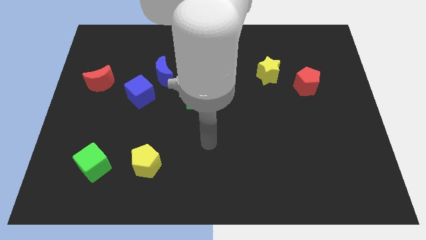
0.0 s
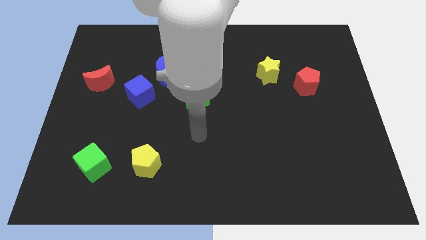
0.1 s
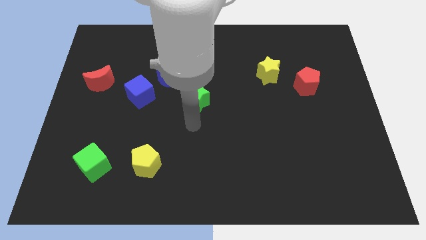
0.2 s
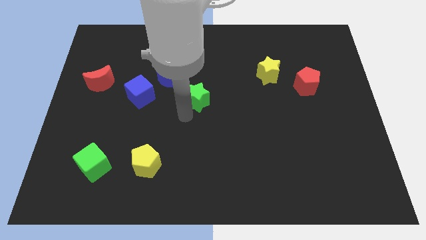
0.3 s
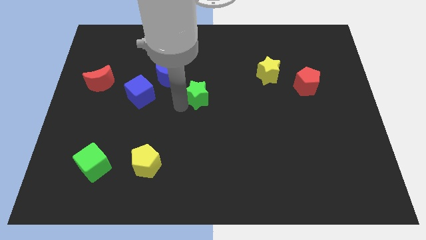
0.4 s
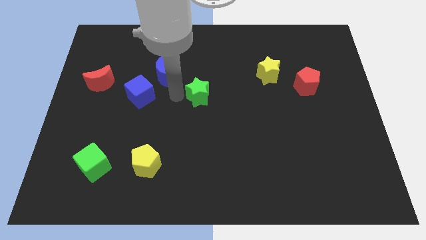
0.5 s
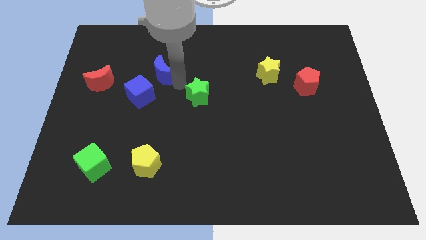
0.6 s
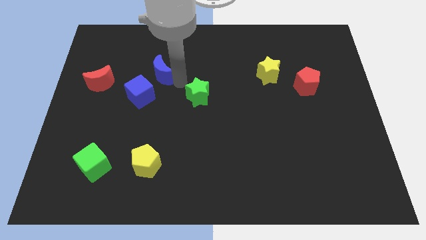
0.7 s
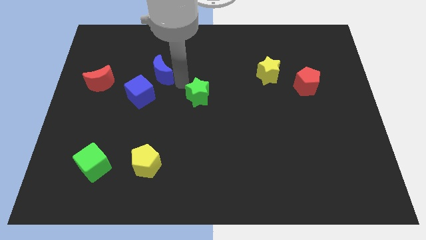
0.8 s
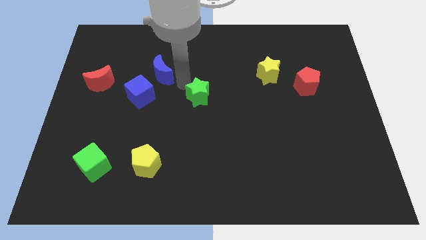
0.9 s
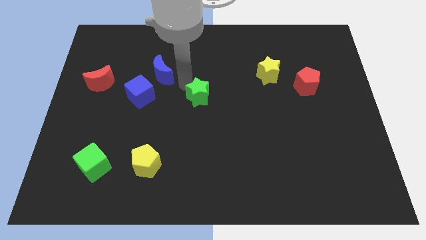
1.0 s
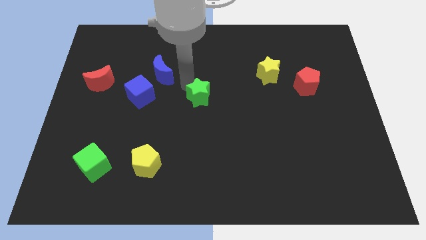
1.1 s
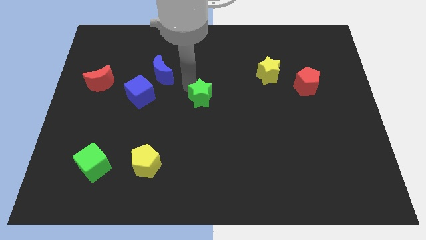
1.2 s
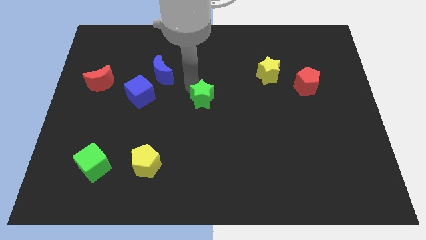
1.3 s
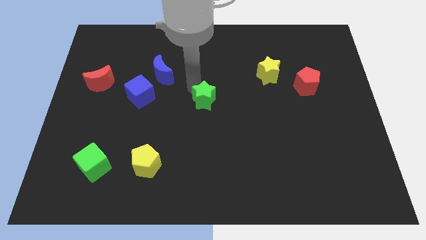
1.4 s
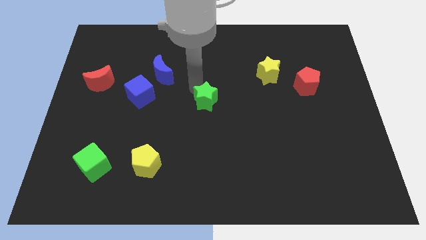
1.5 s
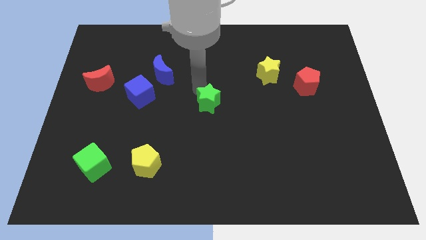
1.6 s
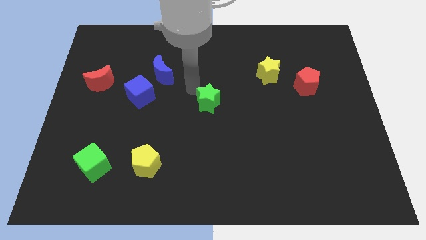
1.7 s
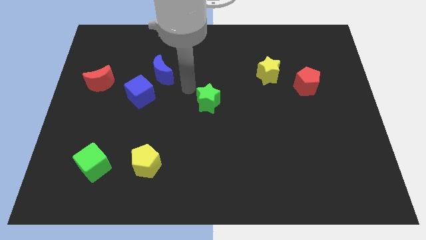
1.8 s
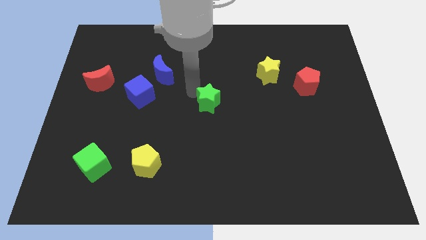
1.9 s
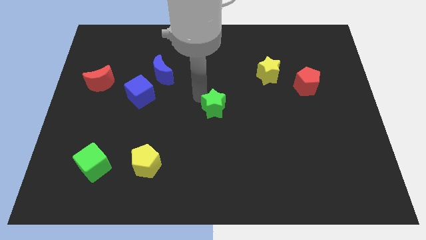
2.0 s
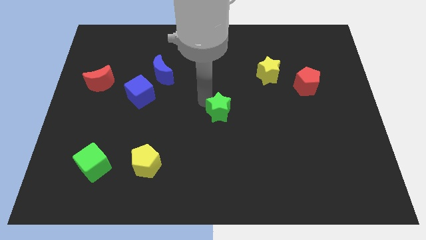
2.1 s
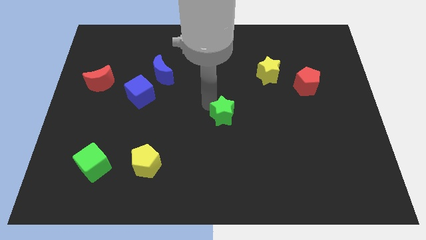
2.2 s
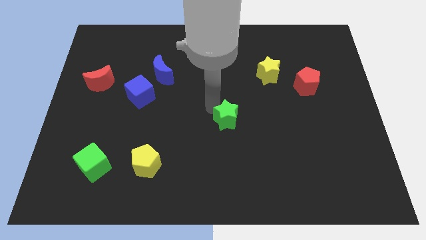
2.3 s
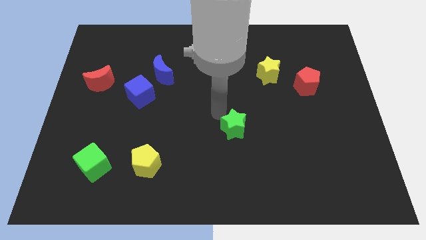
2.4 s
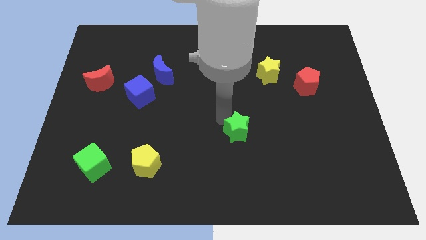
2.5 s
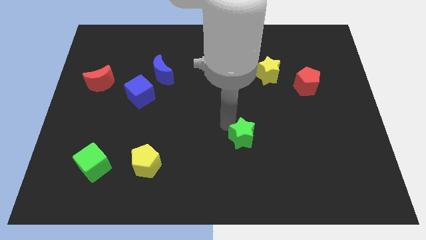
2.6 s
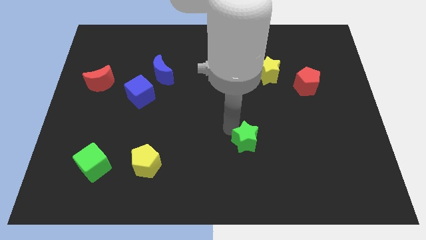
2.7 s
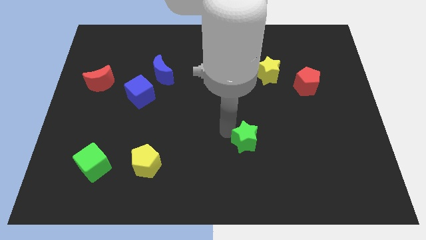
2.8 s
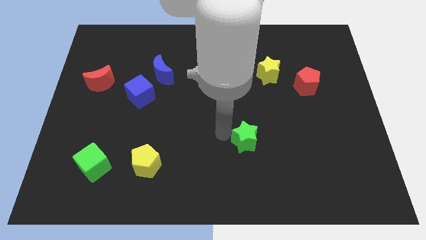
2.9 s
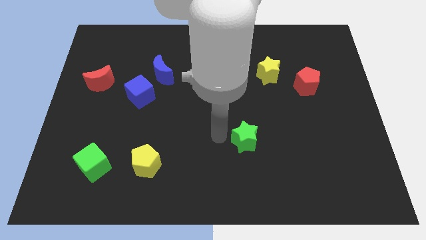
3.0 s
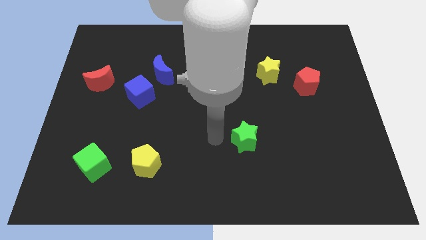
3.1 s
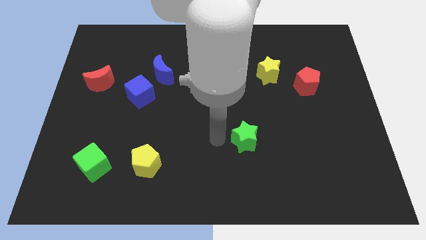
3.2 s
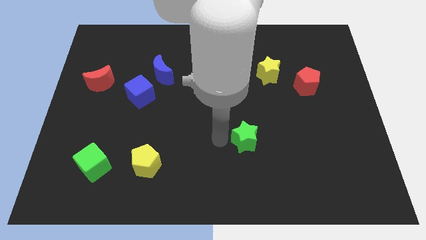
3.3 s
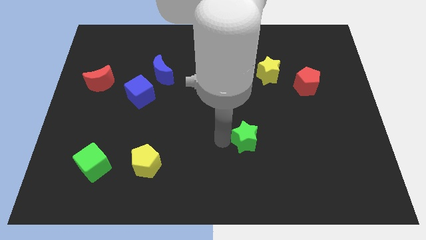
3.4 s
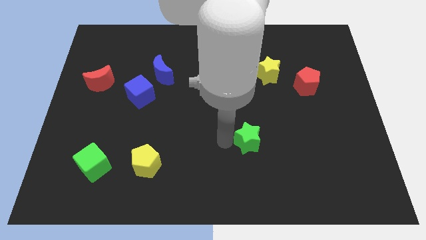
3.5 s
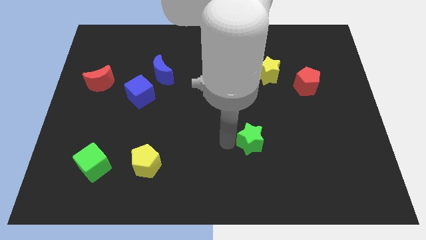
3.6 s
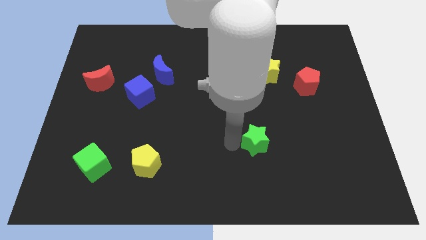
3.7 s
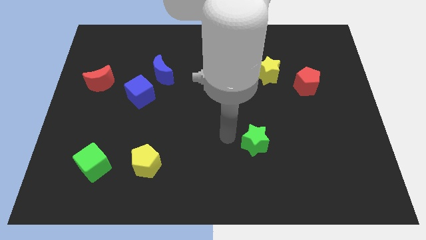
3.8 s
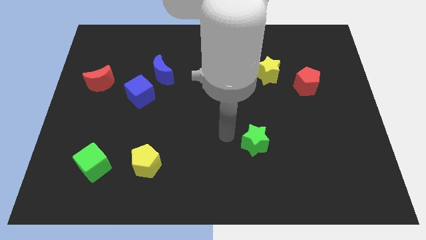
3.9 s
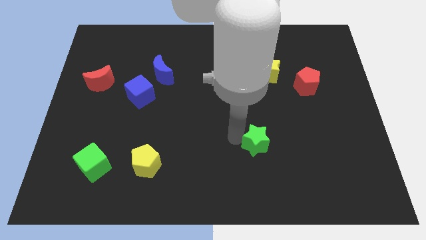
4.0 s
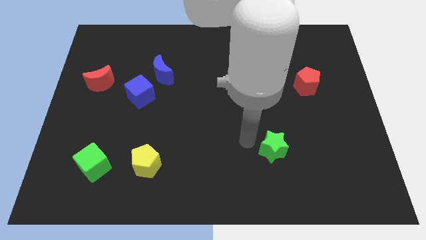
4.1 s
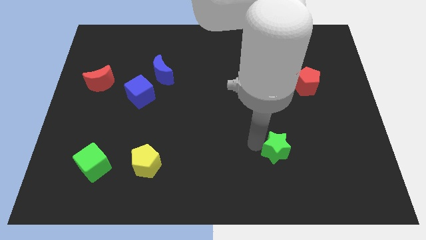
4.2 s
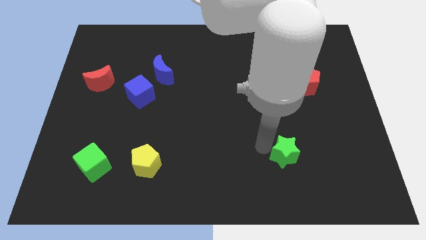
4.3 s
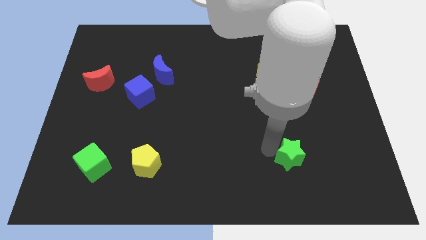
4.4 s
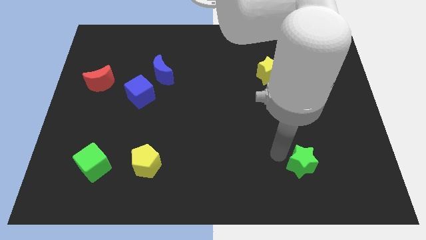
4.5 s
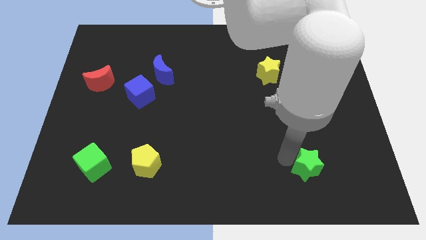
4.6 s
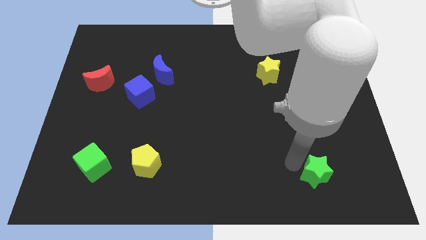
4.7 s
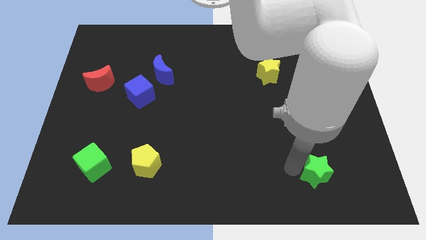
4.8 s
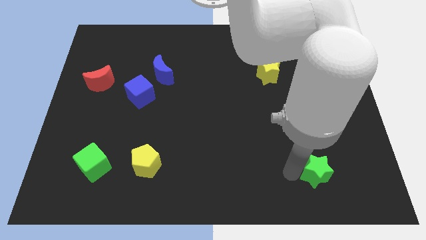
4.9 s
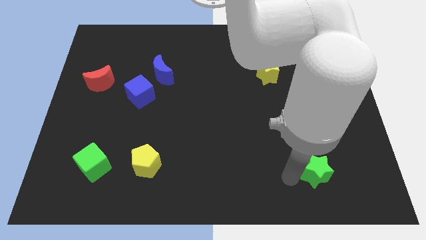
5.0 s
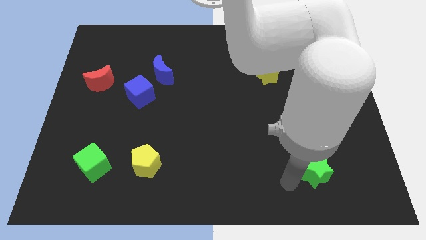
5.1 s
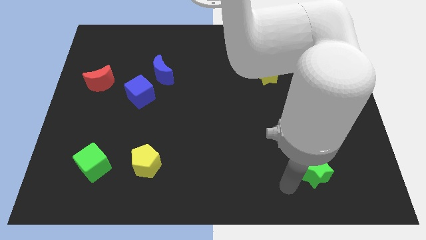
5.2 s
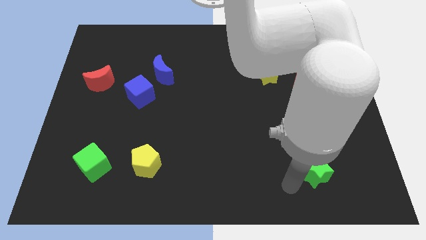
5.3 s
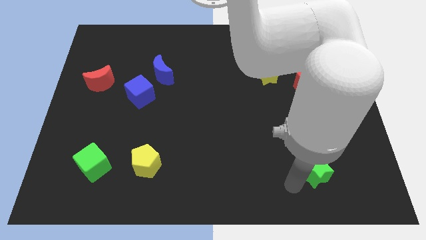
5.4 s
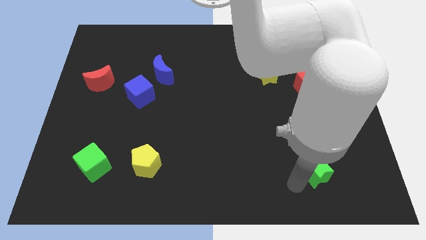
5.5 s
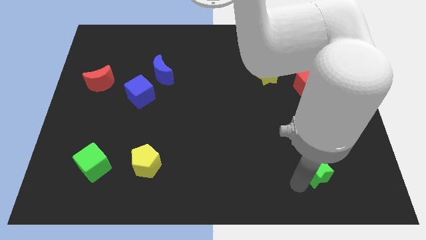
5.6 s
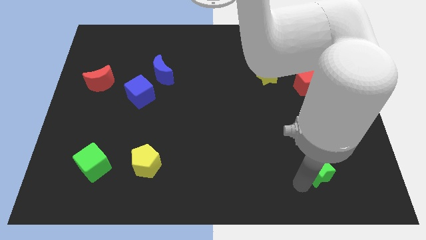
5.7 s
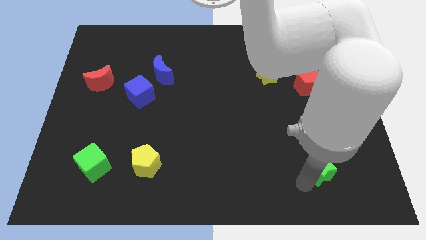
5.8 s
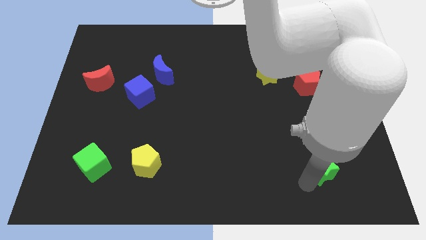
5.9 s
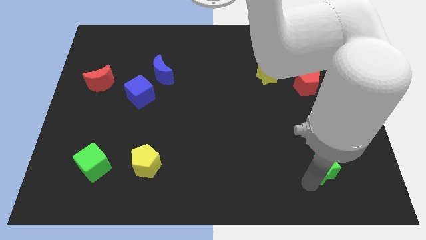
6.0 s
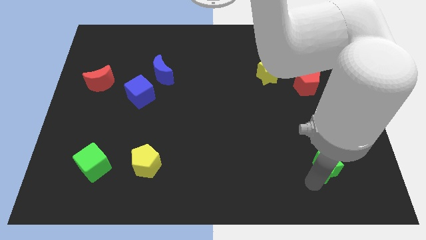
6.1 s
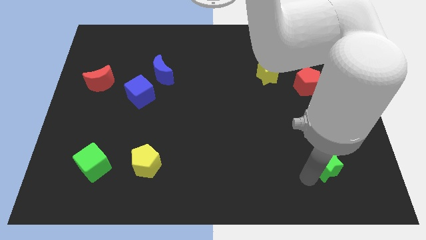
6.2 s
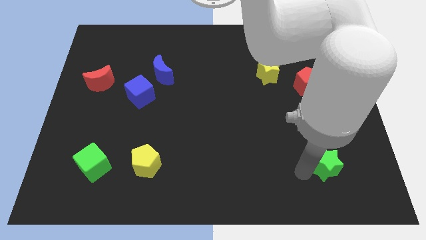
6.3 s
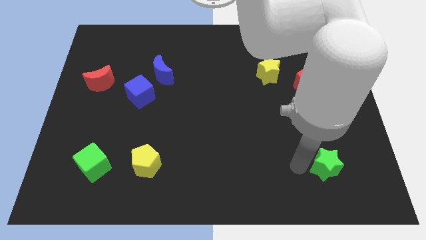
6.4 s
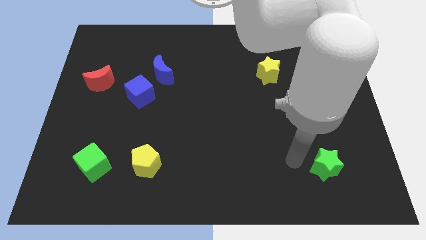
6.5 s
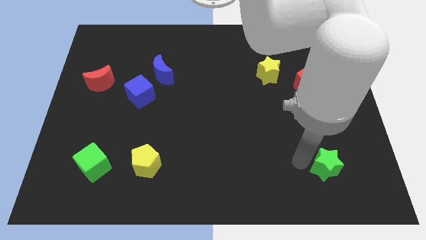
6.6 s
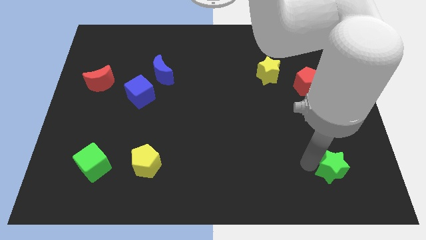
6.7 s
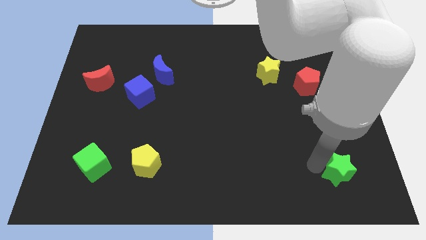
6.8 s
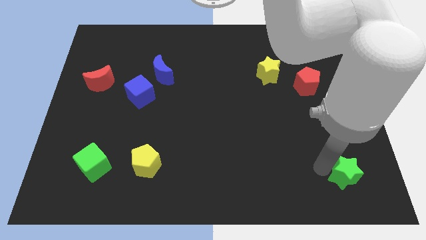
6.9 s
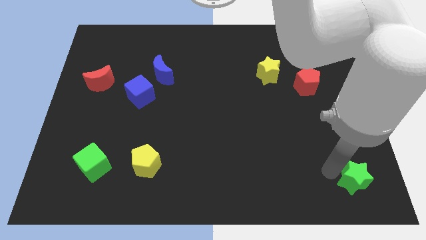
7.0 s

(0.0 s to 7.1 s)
slide the green star to the bottom right corner
